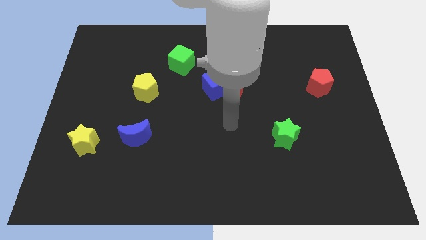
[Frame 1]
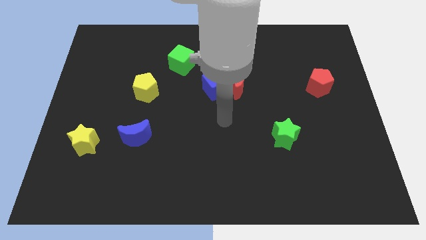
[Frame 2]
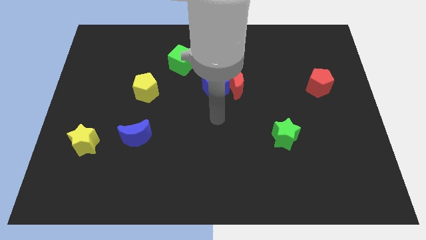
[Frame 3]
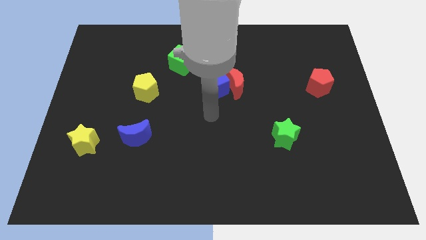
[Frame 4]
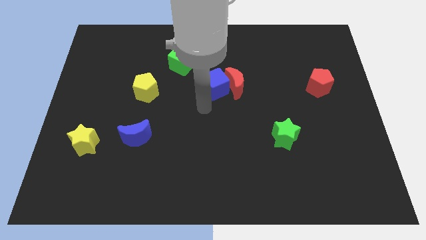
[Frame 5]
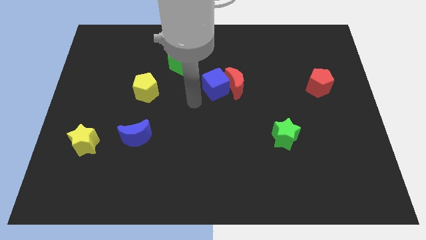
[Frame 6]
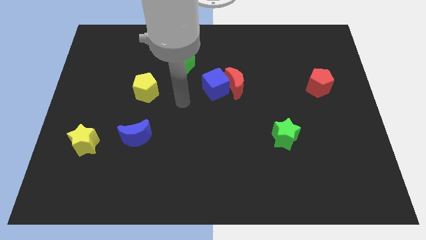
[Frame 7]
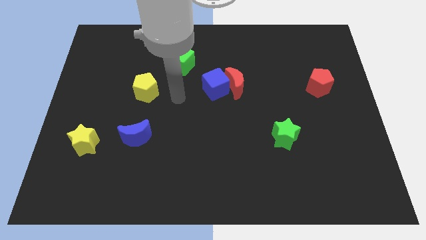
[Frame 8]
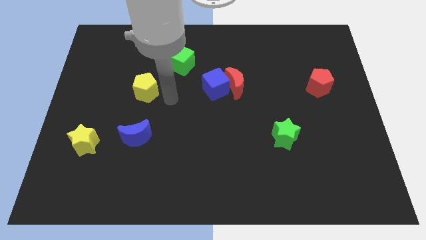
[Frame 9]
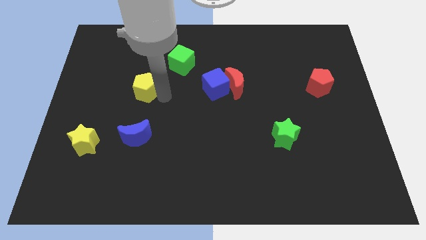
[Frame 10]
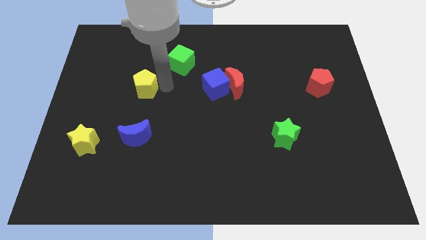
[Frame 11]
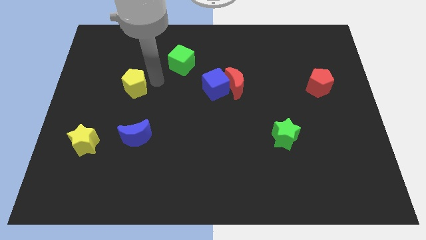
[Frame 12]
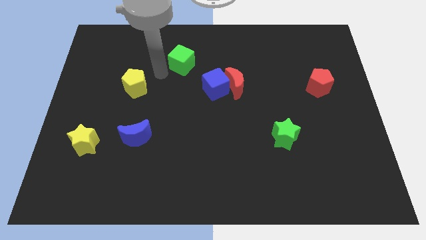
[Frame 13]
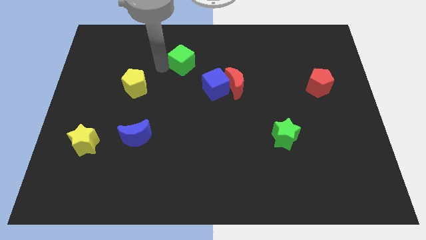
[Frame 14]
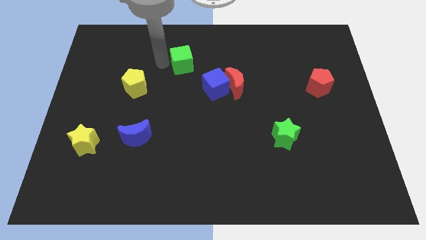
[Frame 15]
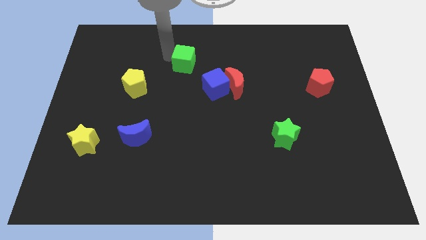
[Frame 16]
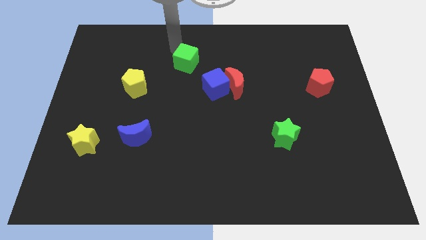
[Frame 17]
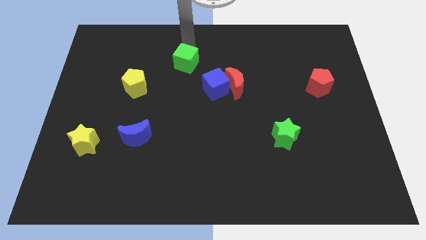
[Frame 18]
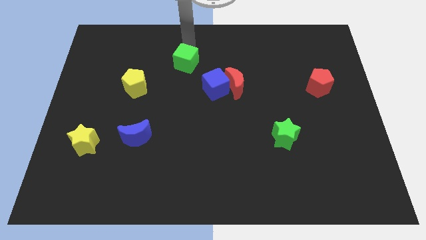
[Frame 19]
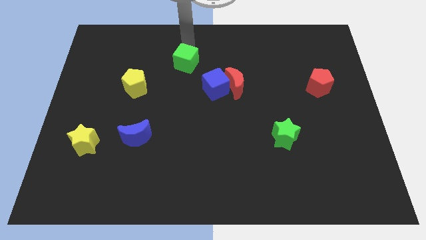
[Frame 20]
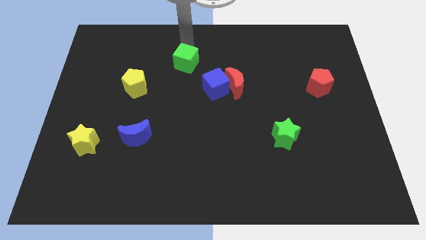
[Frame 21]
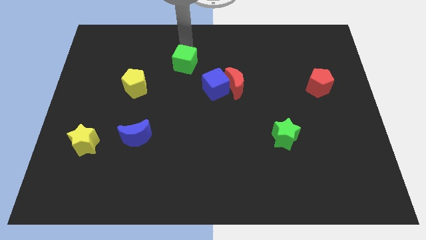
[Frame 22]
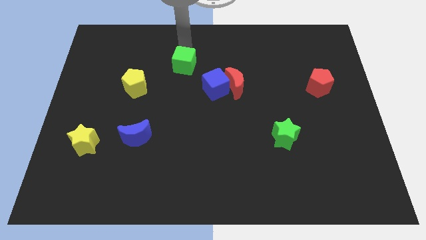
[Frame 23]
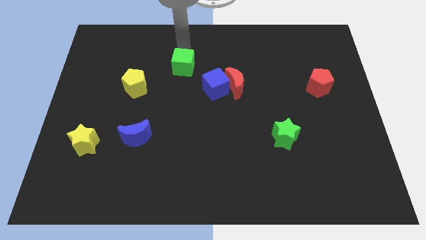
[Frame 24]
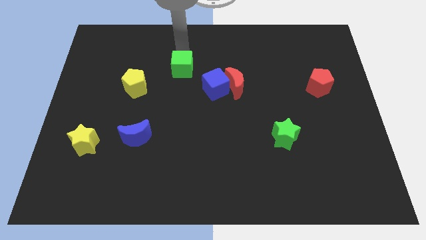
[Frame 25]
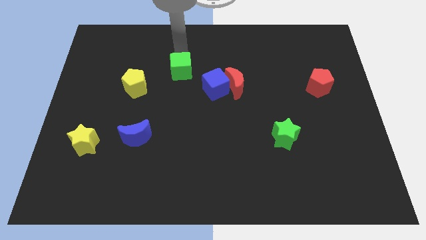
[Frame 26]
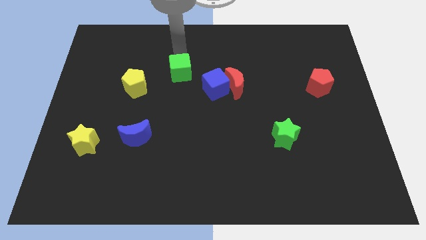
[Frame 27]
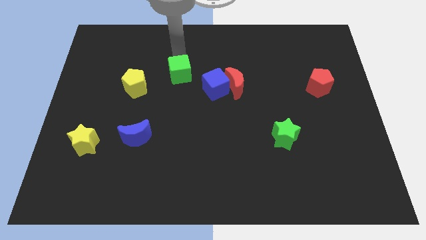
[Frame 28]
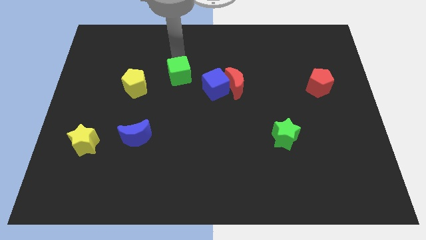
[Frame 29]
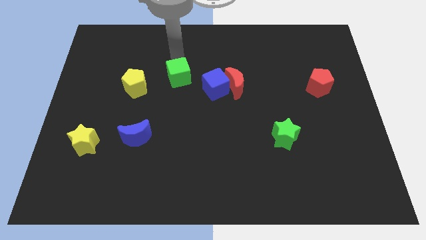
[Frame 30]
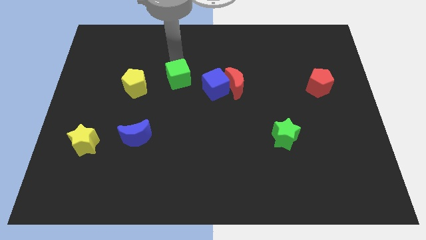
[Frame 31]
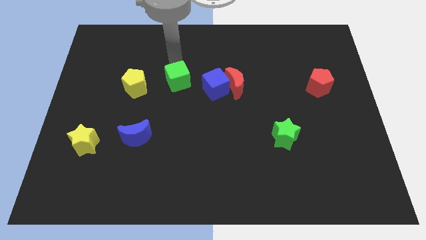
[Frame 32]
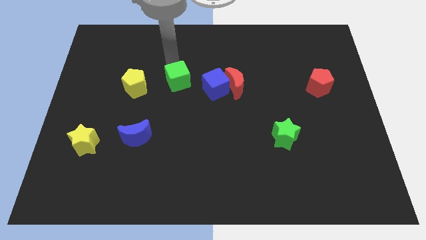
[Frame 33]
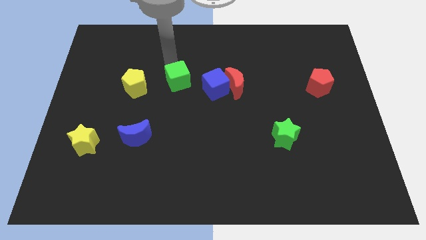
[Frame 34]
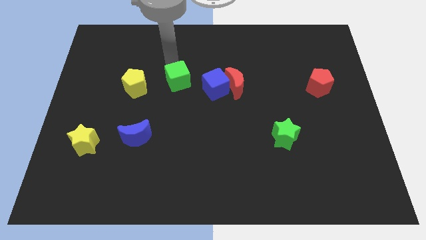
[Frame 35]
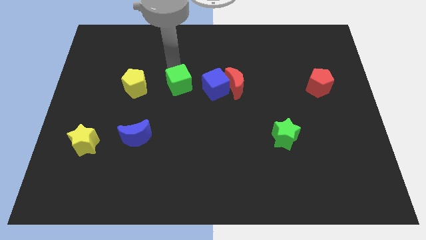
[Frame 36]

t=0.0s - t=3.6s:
slightly move the green cube down

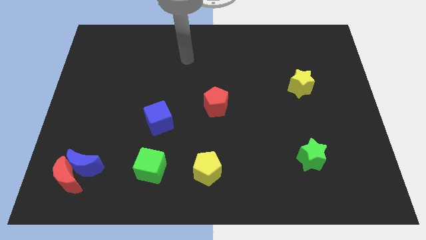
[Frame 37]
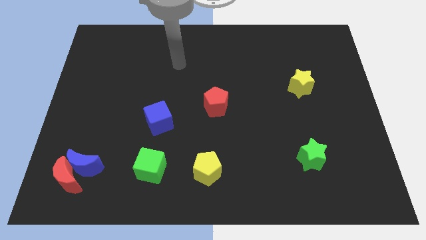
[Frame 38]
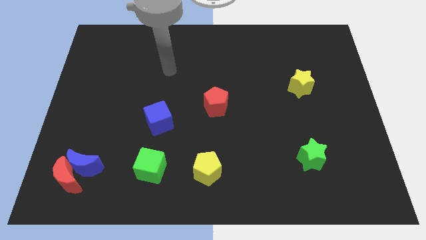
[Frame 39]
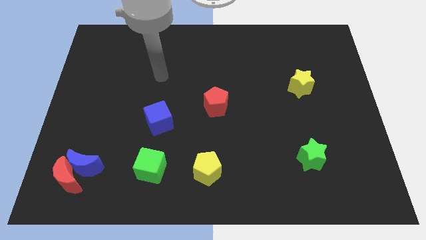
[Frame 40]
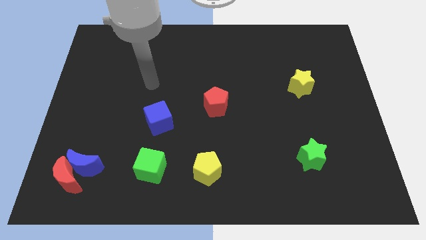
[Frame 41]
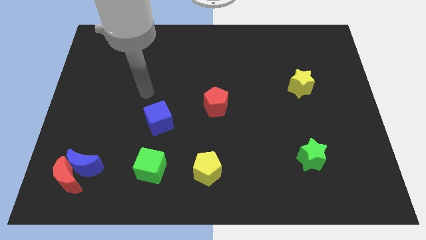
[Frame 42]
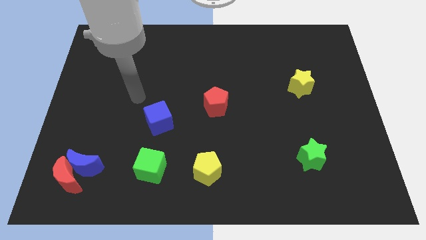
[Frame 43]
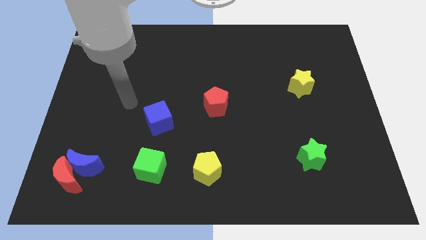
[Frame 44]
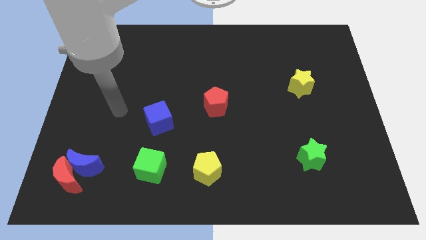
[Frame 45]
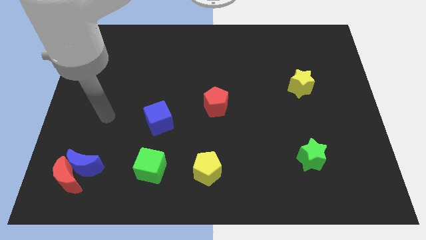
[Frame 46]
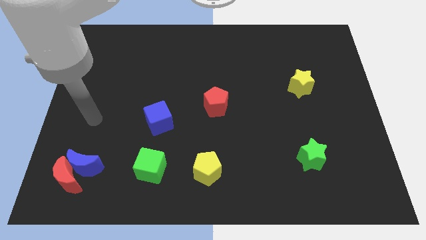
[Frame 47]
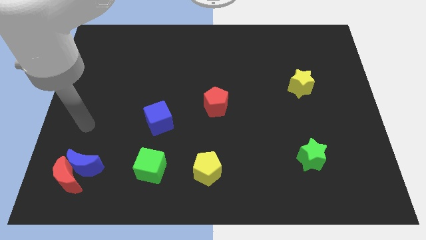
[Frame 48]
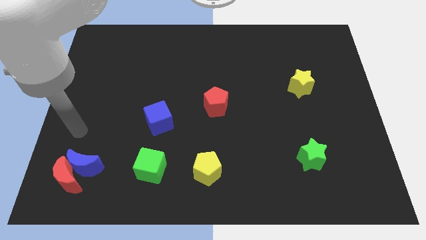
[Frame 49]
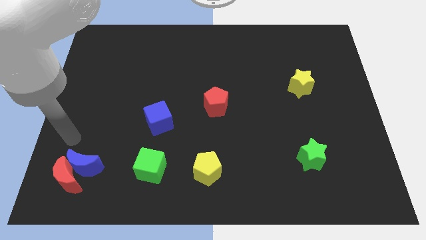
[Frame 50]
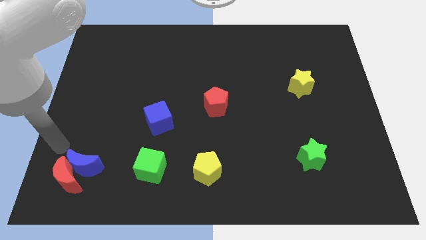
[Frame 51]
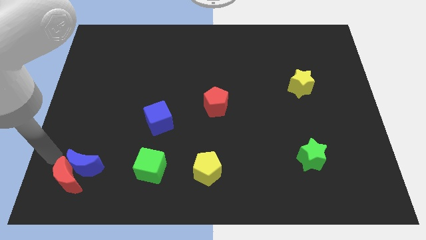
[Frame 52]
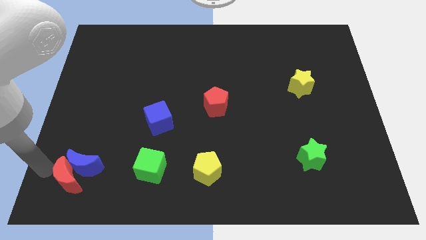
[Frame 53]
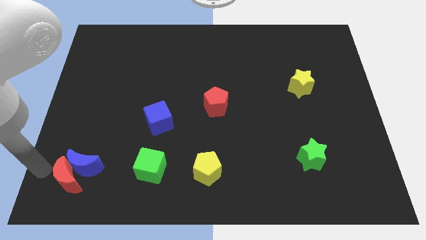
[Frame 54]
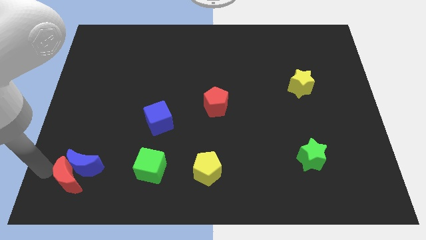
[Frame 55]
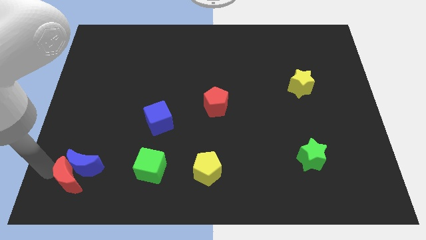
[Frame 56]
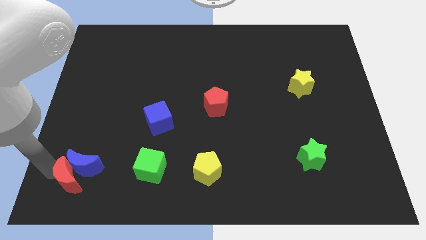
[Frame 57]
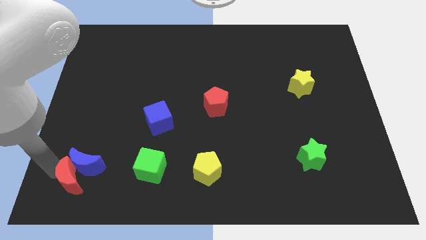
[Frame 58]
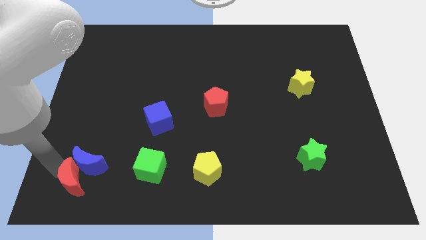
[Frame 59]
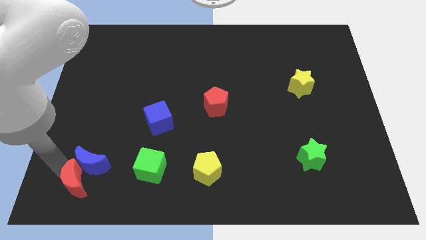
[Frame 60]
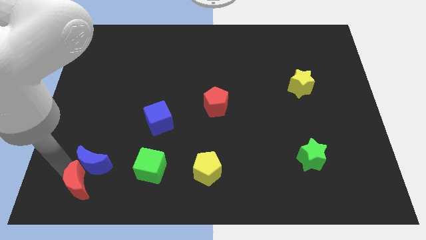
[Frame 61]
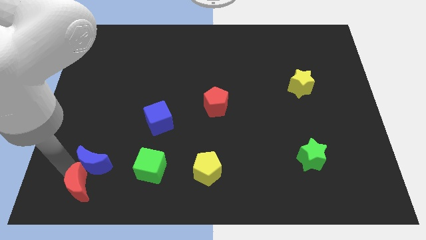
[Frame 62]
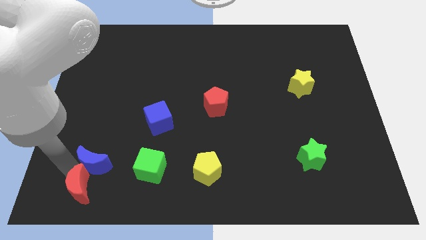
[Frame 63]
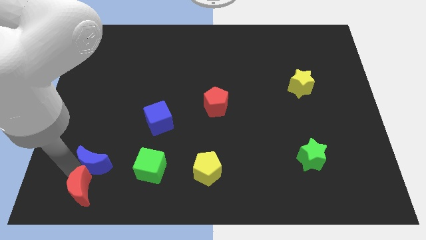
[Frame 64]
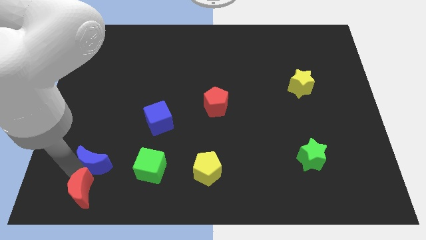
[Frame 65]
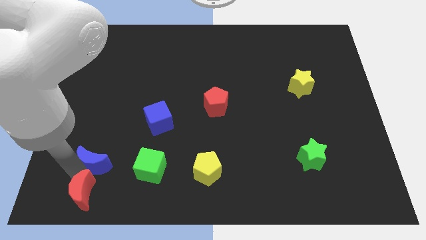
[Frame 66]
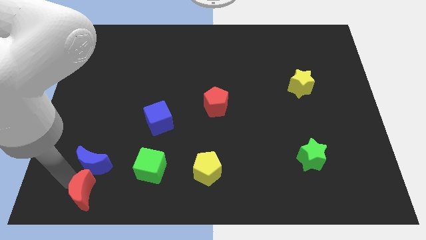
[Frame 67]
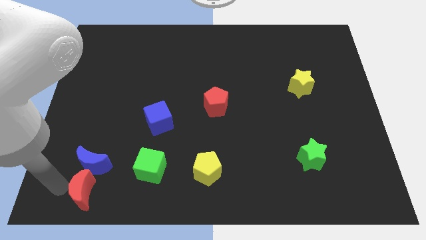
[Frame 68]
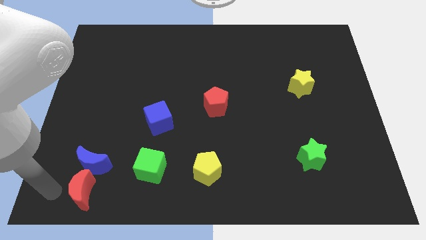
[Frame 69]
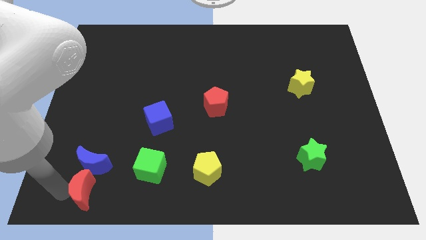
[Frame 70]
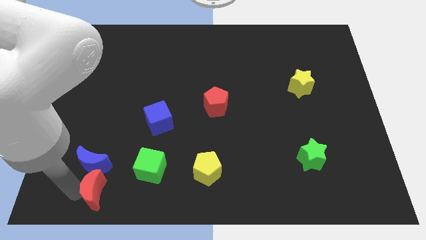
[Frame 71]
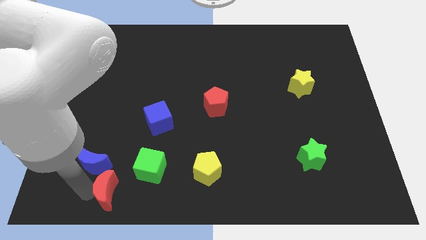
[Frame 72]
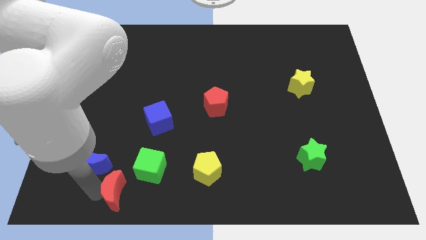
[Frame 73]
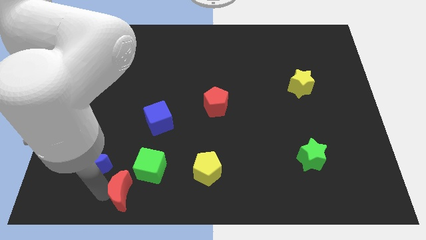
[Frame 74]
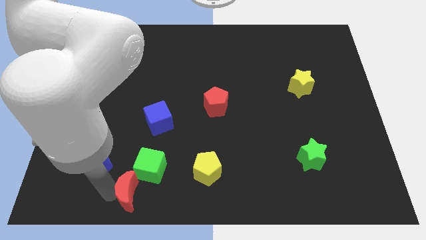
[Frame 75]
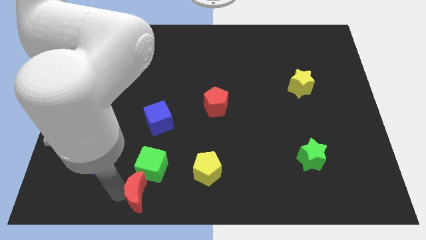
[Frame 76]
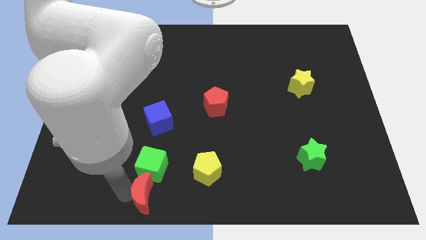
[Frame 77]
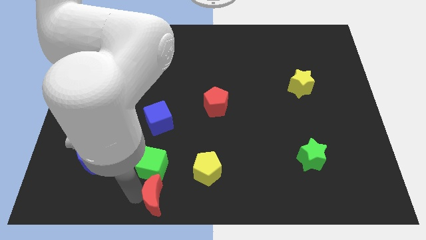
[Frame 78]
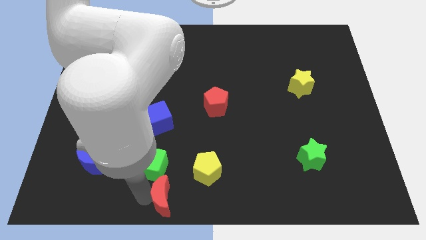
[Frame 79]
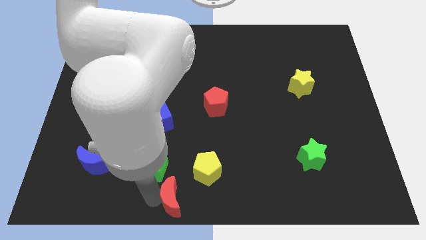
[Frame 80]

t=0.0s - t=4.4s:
move the red moon to the right
